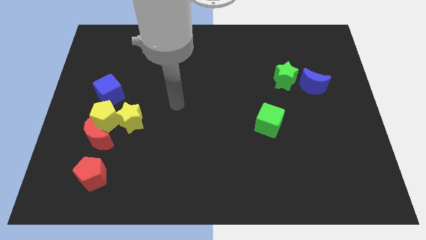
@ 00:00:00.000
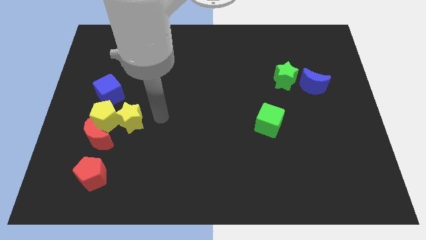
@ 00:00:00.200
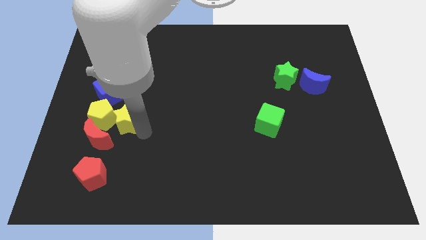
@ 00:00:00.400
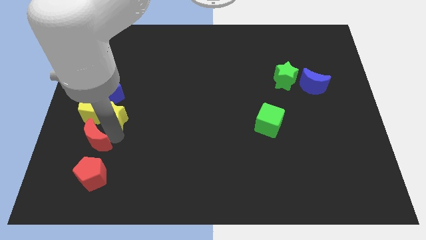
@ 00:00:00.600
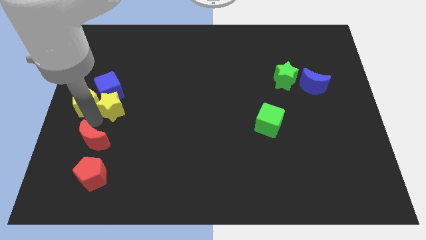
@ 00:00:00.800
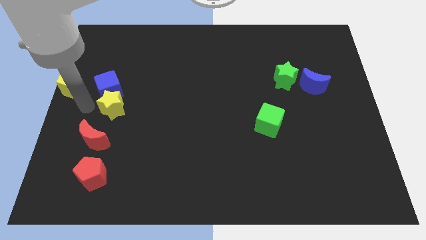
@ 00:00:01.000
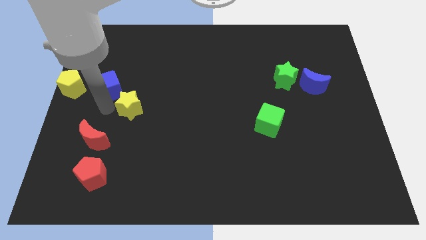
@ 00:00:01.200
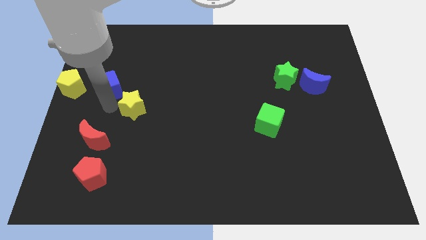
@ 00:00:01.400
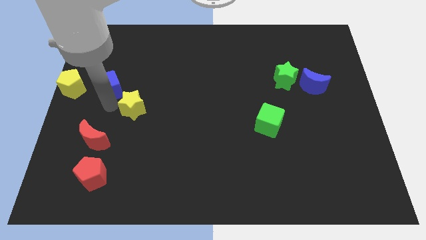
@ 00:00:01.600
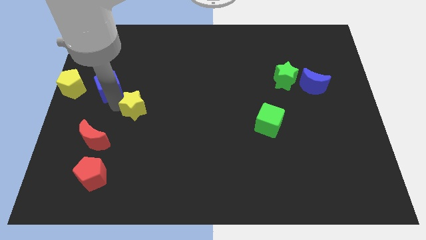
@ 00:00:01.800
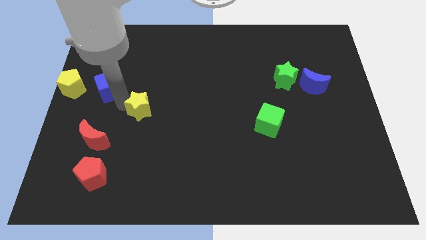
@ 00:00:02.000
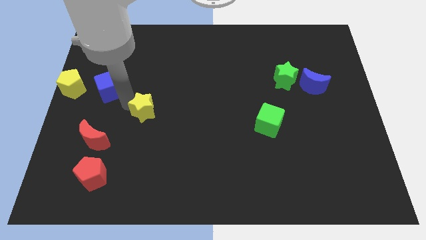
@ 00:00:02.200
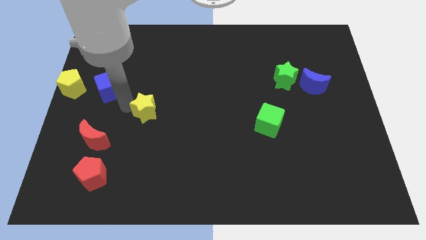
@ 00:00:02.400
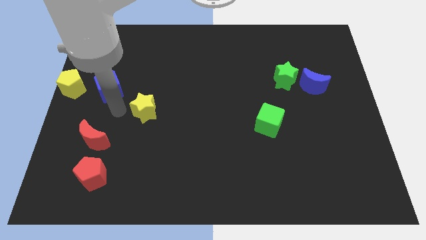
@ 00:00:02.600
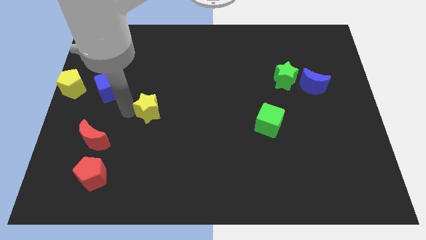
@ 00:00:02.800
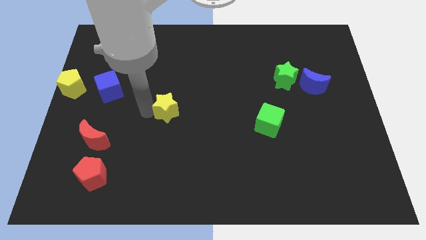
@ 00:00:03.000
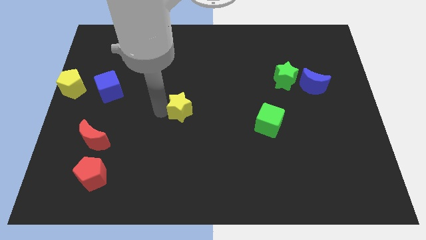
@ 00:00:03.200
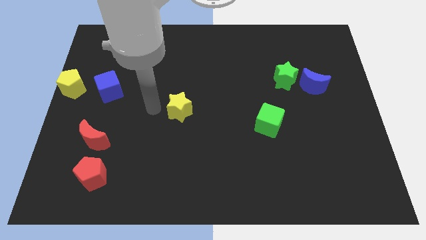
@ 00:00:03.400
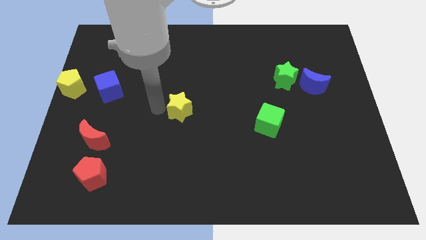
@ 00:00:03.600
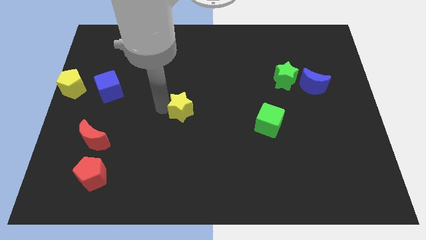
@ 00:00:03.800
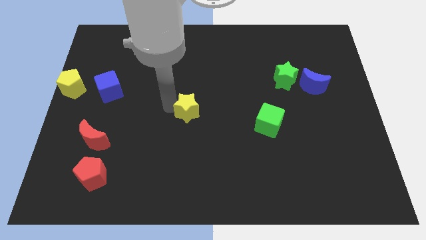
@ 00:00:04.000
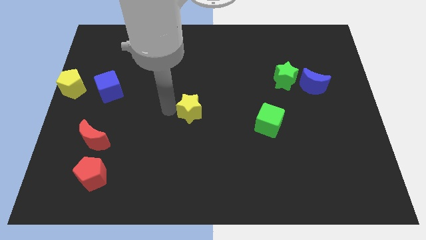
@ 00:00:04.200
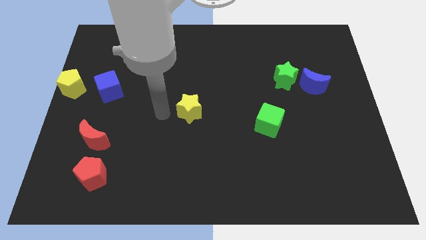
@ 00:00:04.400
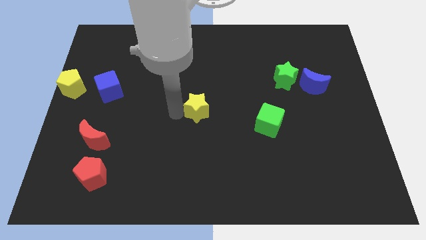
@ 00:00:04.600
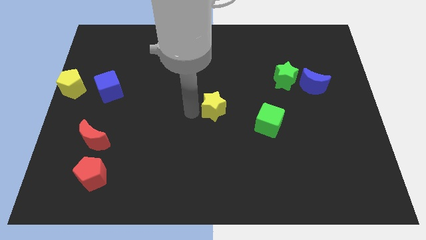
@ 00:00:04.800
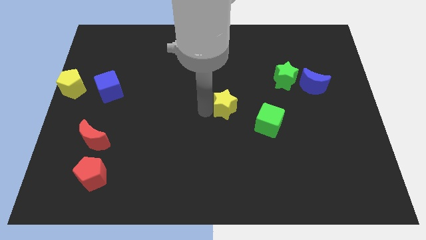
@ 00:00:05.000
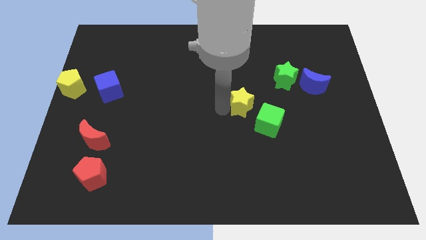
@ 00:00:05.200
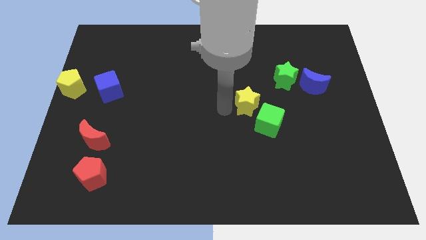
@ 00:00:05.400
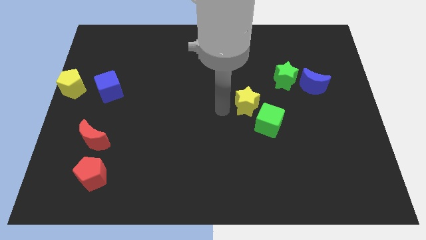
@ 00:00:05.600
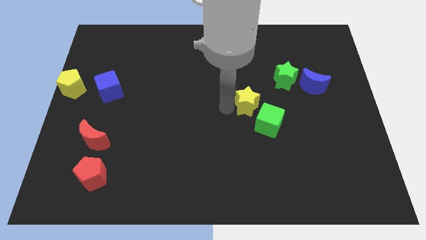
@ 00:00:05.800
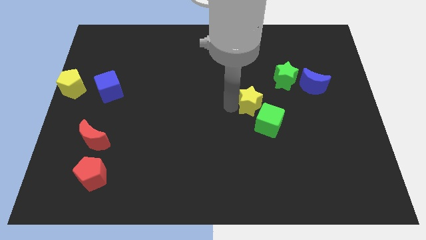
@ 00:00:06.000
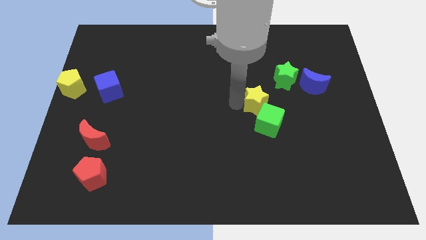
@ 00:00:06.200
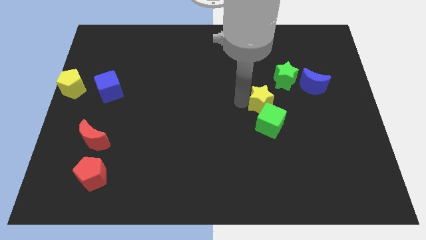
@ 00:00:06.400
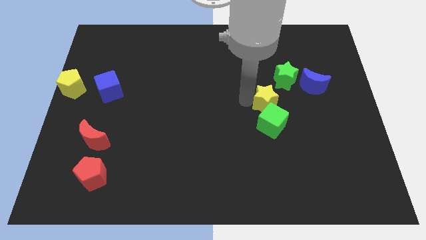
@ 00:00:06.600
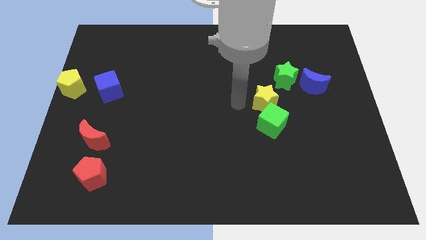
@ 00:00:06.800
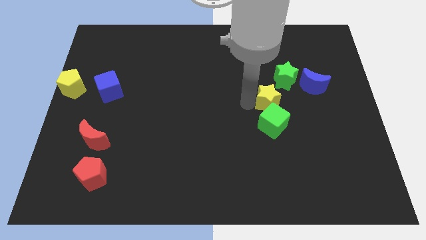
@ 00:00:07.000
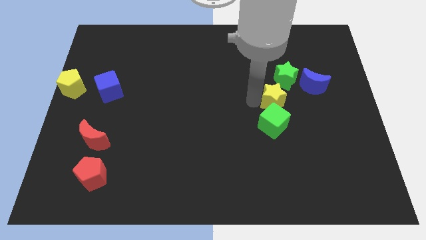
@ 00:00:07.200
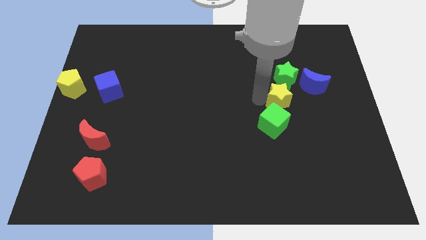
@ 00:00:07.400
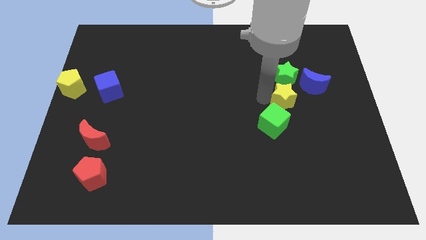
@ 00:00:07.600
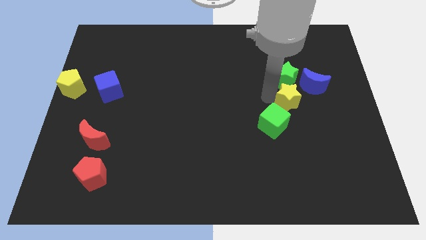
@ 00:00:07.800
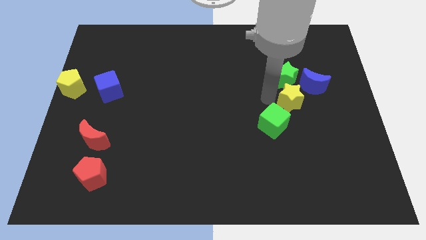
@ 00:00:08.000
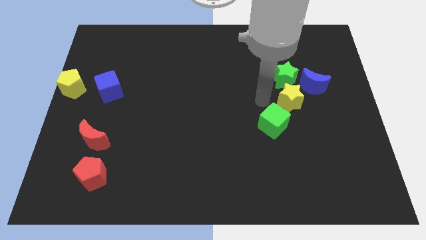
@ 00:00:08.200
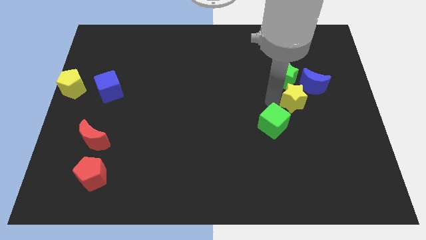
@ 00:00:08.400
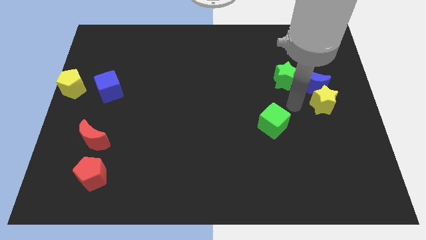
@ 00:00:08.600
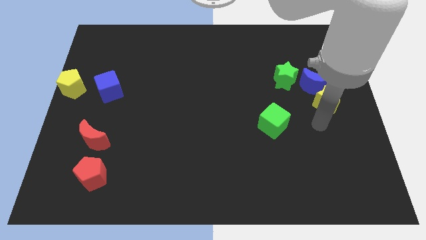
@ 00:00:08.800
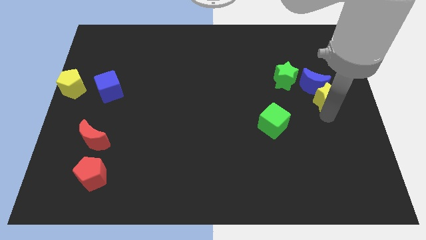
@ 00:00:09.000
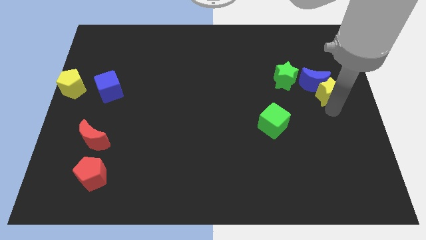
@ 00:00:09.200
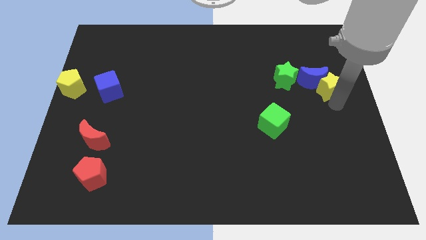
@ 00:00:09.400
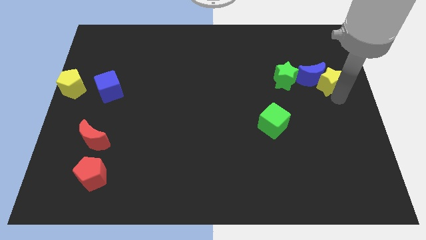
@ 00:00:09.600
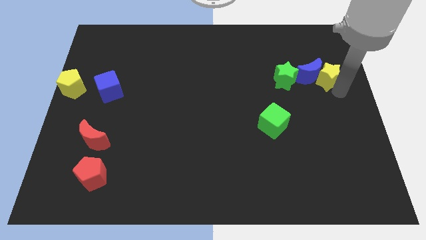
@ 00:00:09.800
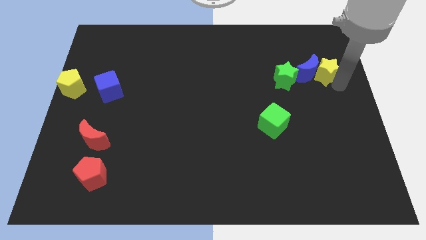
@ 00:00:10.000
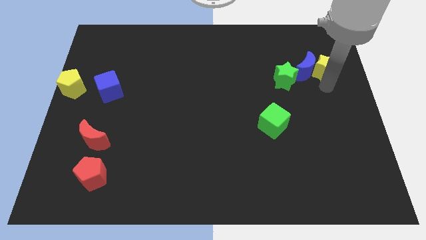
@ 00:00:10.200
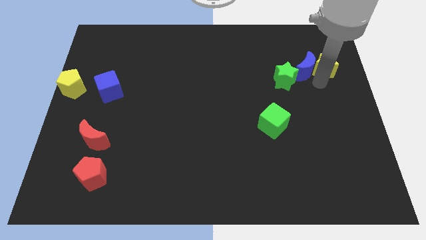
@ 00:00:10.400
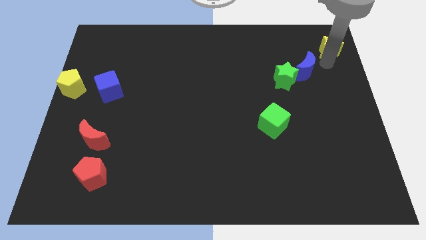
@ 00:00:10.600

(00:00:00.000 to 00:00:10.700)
slide the yellow star to the top right corner
